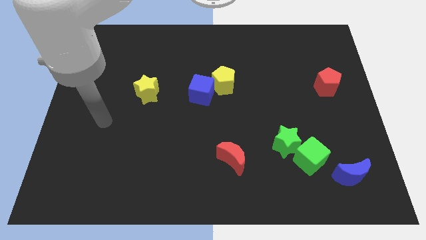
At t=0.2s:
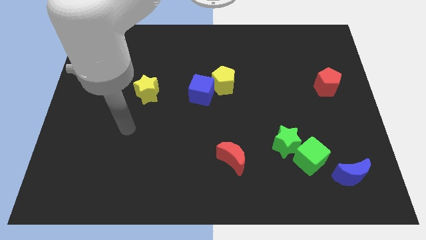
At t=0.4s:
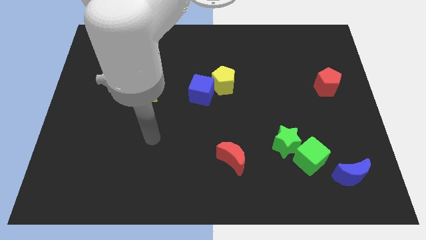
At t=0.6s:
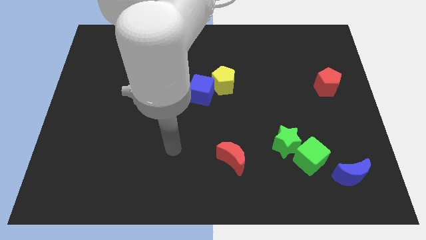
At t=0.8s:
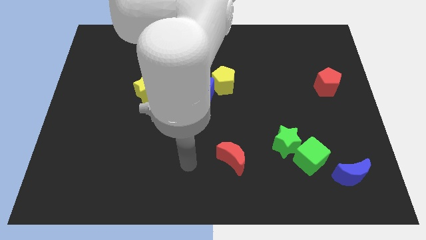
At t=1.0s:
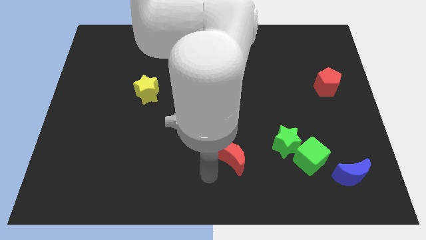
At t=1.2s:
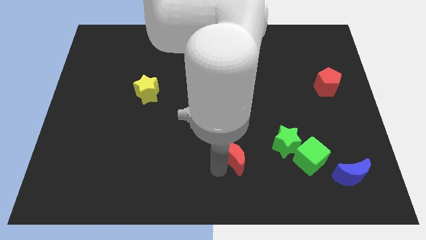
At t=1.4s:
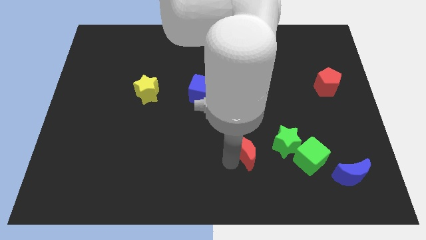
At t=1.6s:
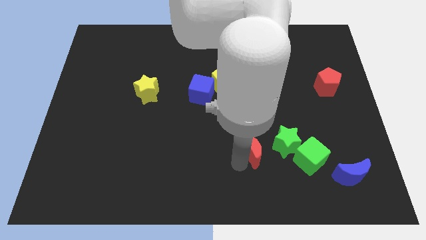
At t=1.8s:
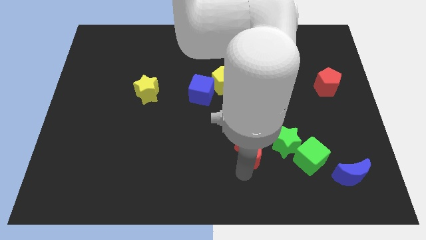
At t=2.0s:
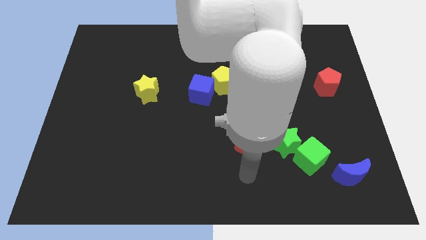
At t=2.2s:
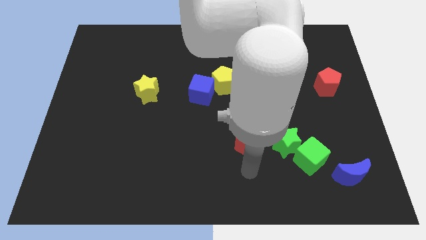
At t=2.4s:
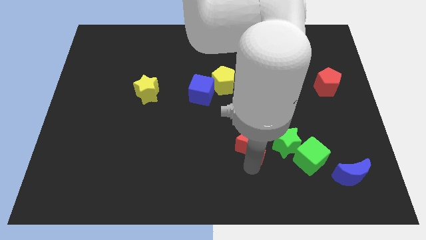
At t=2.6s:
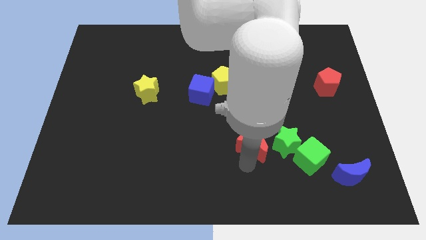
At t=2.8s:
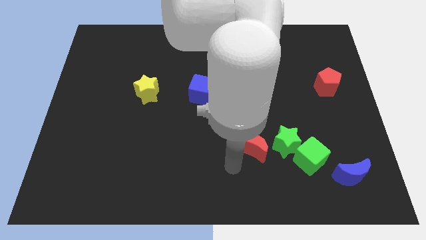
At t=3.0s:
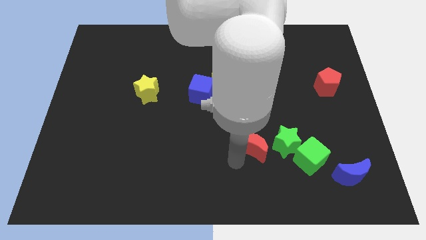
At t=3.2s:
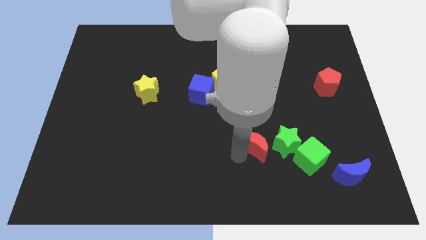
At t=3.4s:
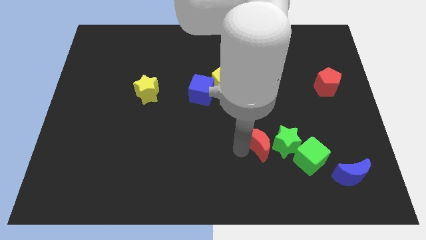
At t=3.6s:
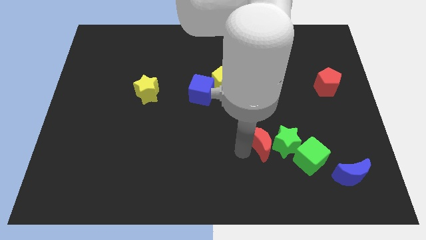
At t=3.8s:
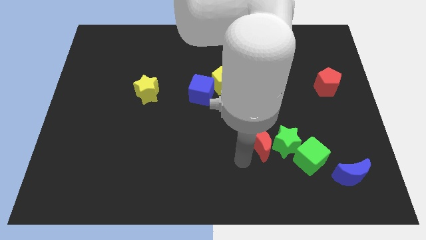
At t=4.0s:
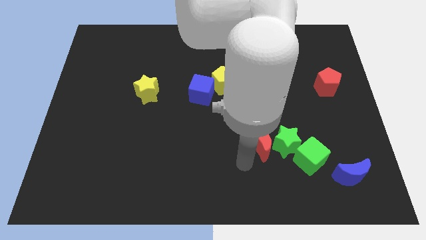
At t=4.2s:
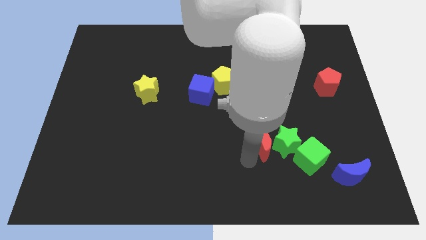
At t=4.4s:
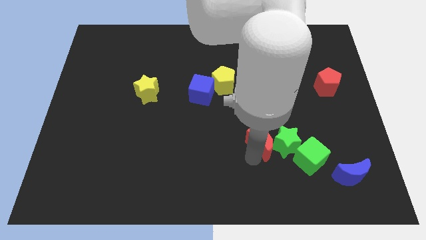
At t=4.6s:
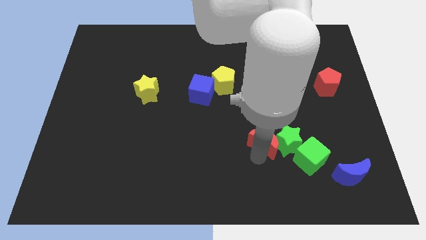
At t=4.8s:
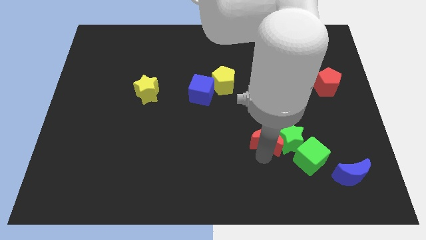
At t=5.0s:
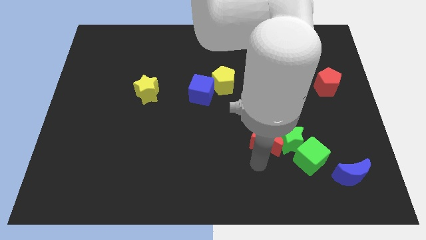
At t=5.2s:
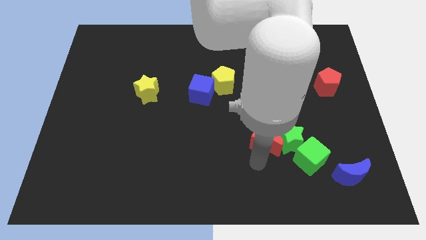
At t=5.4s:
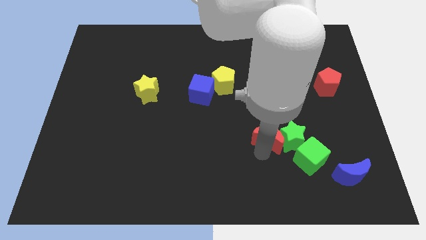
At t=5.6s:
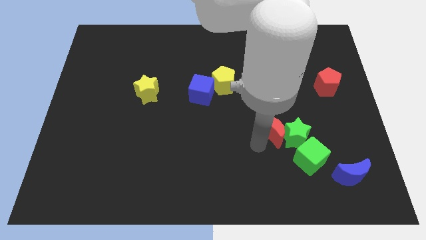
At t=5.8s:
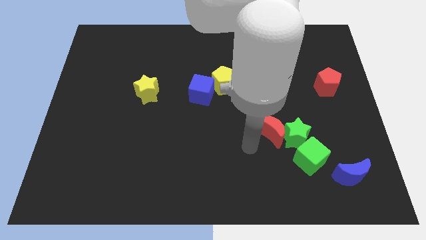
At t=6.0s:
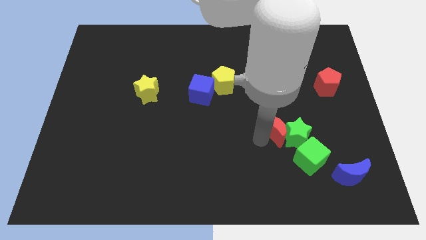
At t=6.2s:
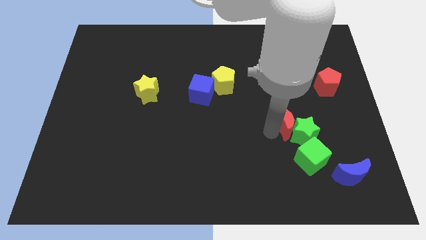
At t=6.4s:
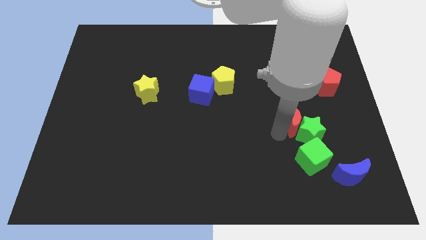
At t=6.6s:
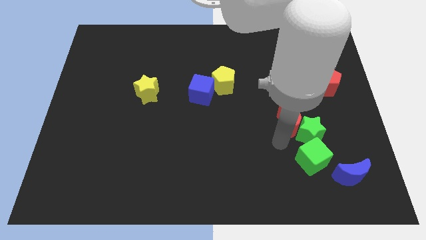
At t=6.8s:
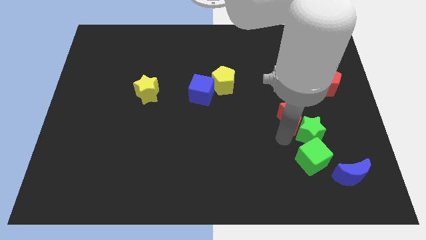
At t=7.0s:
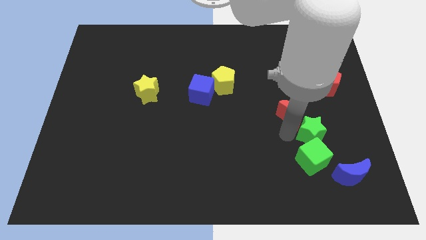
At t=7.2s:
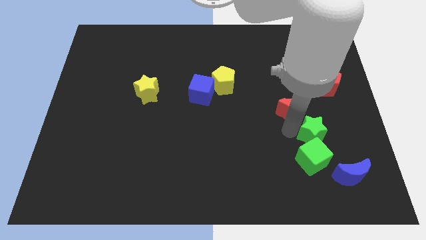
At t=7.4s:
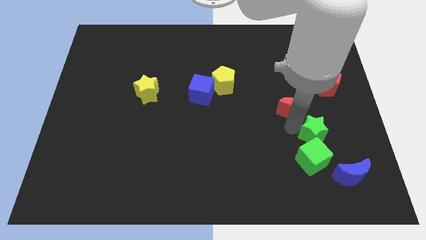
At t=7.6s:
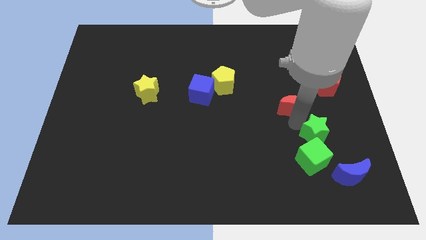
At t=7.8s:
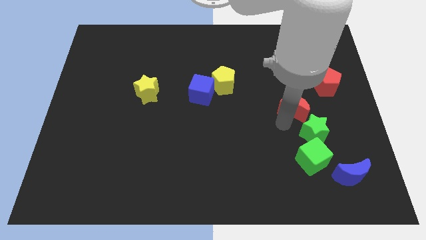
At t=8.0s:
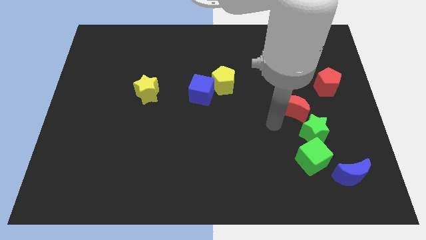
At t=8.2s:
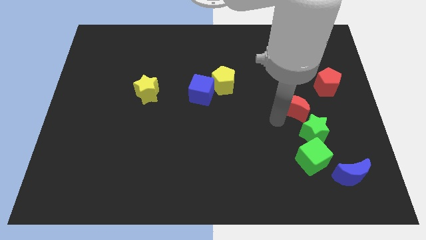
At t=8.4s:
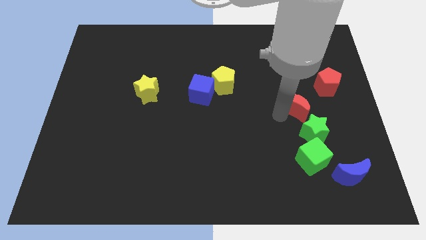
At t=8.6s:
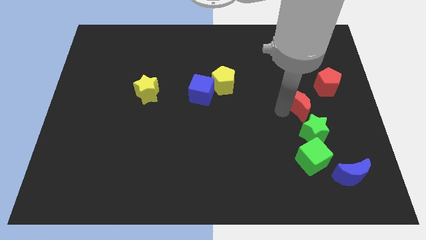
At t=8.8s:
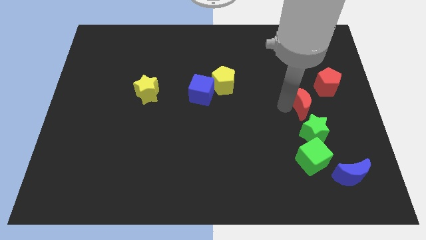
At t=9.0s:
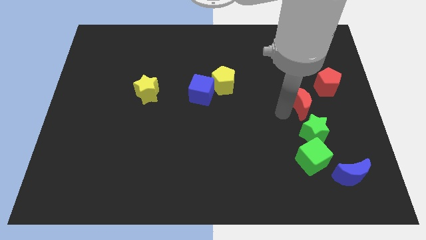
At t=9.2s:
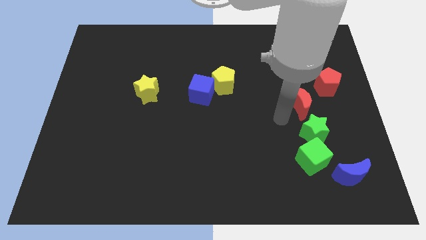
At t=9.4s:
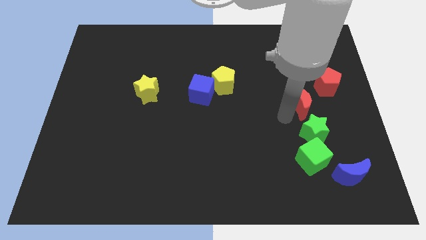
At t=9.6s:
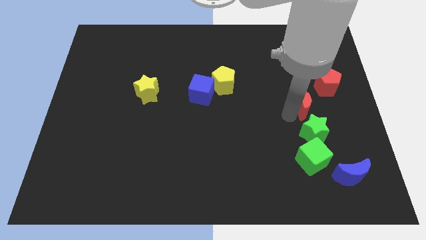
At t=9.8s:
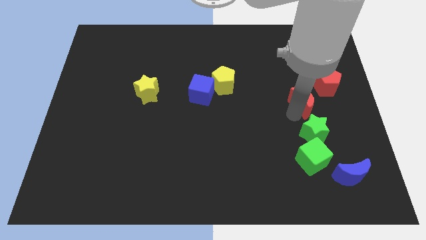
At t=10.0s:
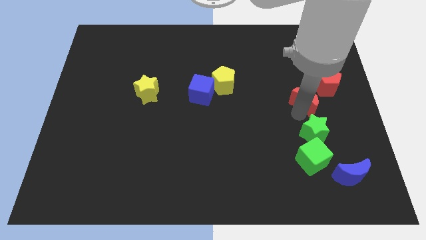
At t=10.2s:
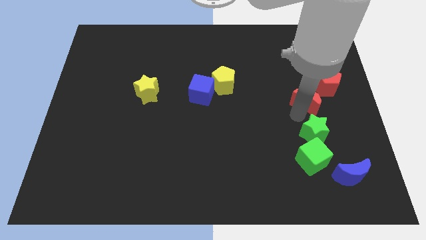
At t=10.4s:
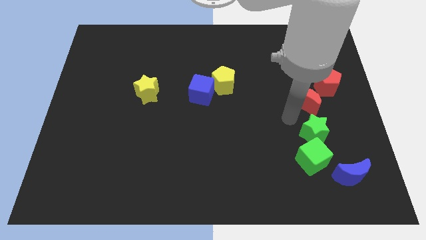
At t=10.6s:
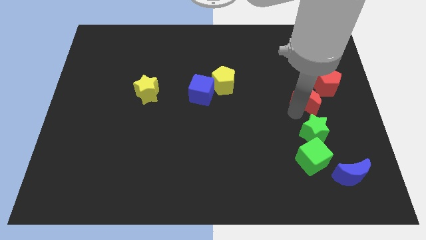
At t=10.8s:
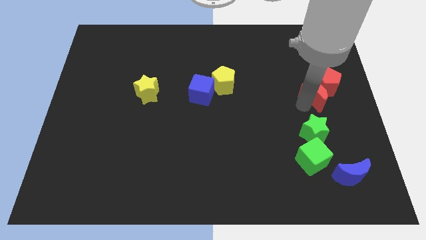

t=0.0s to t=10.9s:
slide the red moon towards the red pentagon

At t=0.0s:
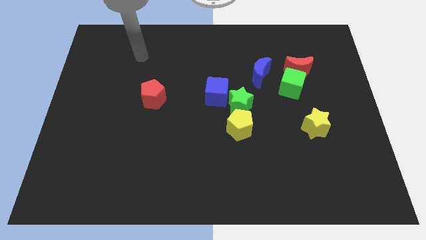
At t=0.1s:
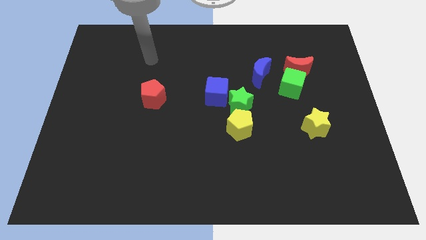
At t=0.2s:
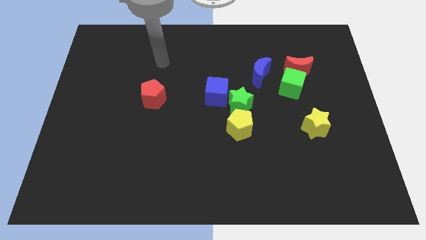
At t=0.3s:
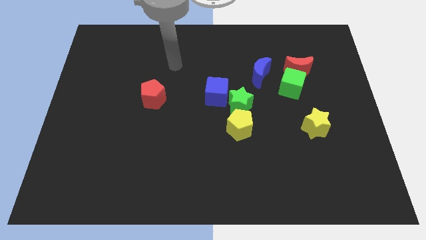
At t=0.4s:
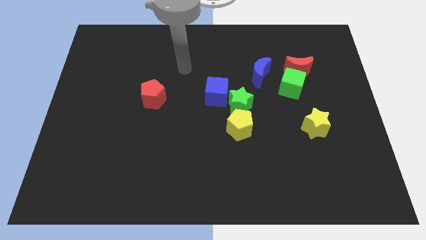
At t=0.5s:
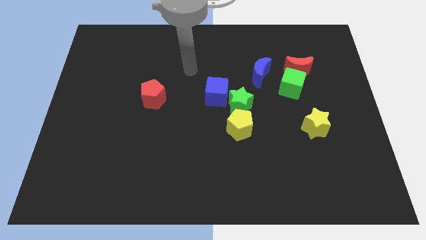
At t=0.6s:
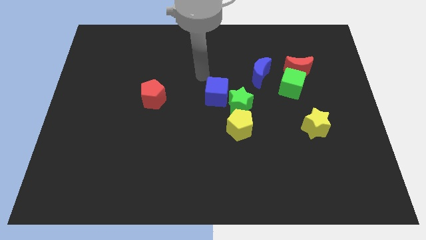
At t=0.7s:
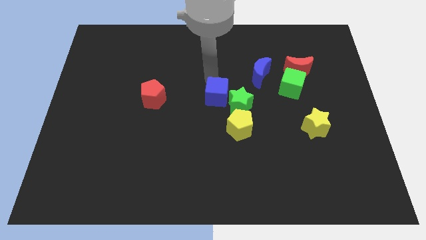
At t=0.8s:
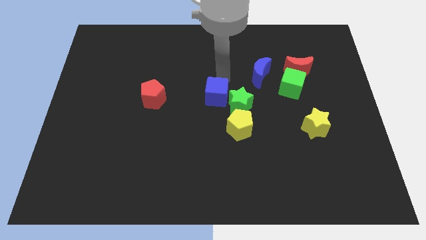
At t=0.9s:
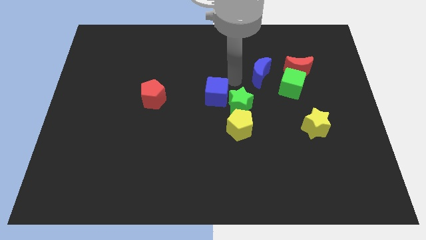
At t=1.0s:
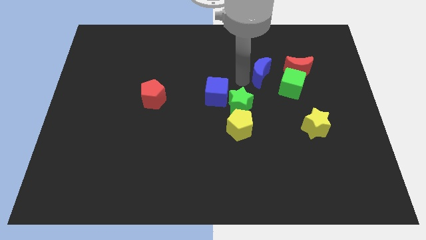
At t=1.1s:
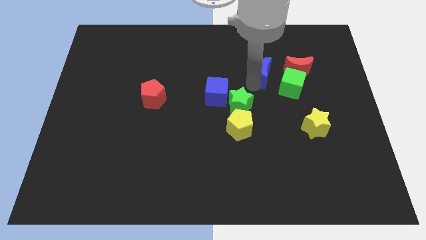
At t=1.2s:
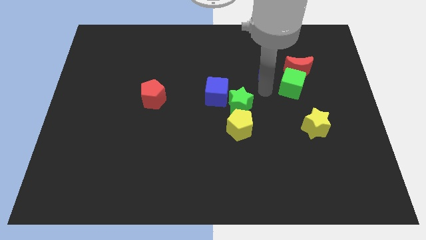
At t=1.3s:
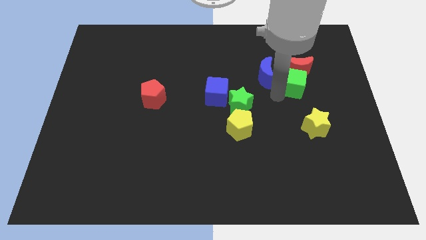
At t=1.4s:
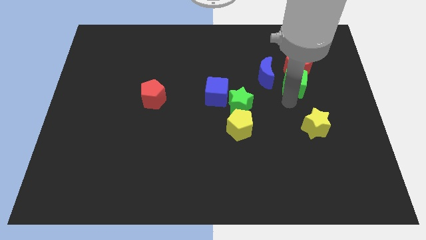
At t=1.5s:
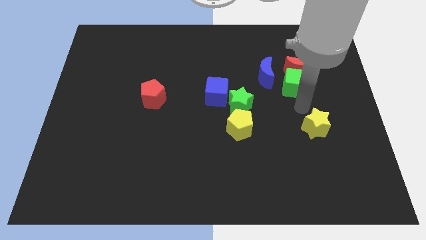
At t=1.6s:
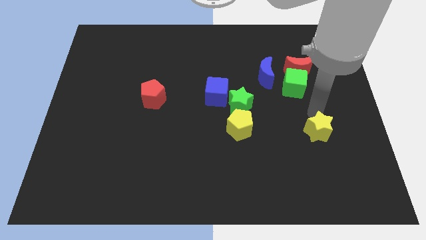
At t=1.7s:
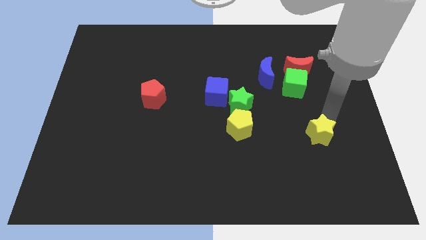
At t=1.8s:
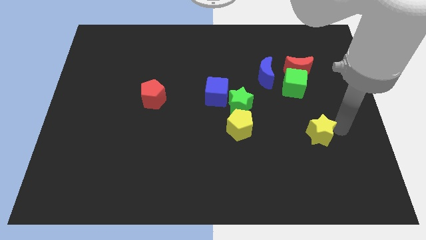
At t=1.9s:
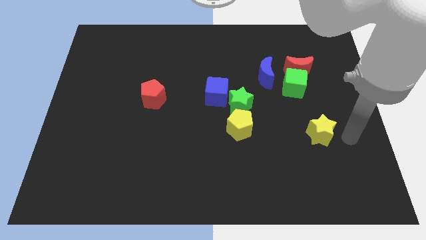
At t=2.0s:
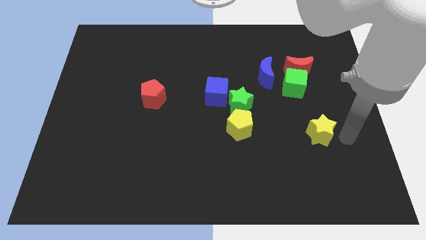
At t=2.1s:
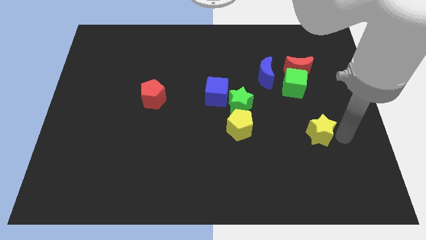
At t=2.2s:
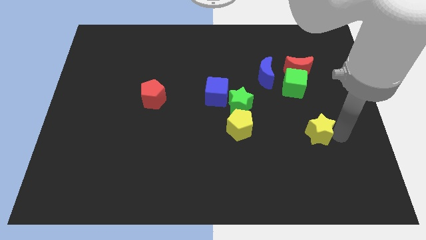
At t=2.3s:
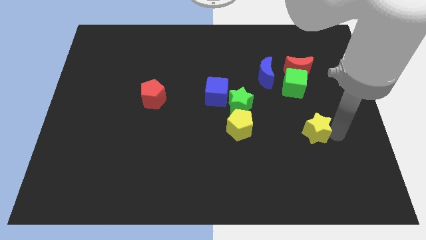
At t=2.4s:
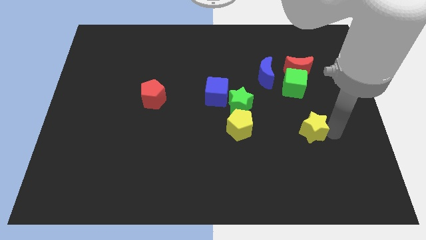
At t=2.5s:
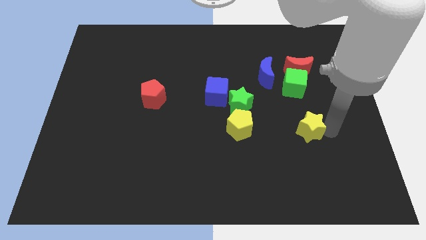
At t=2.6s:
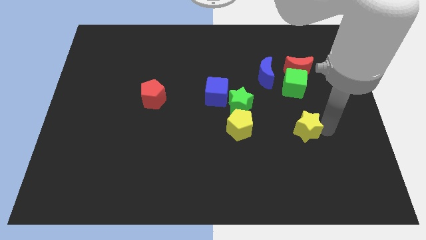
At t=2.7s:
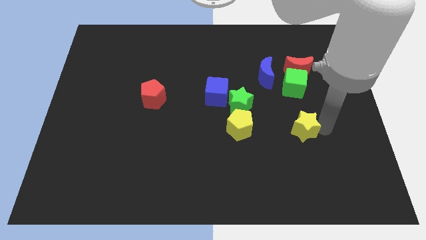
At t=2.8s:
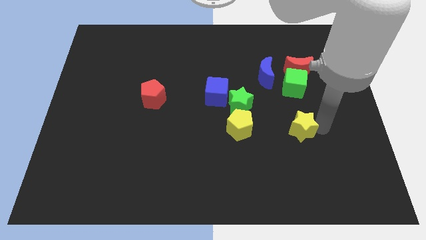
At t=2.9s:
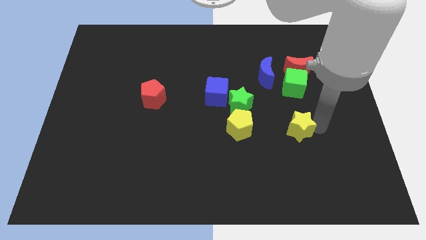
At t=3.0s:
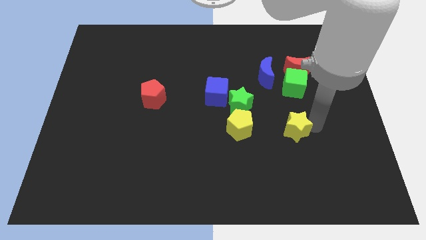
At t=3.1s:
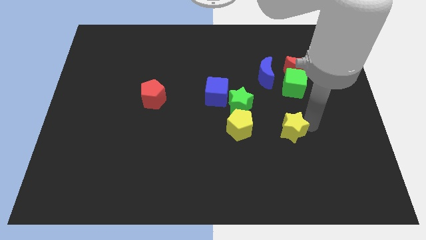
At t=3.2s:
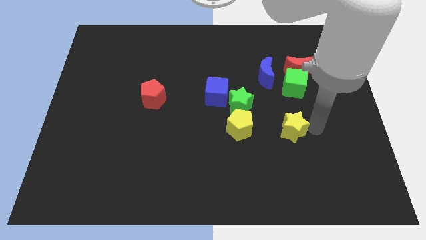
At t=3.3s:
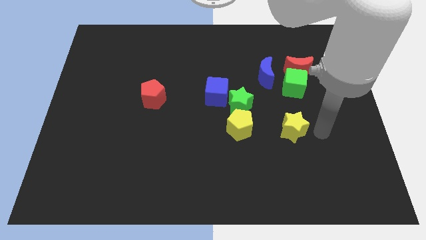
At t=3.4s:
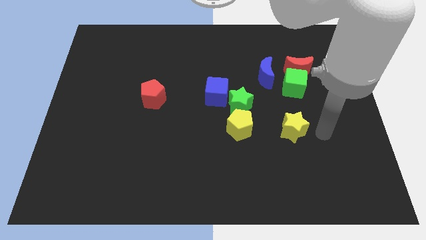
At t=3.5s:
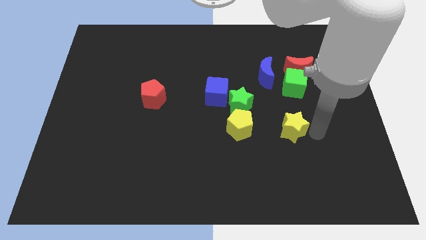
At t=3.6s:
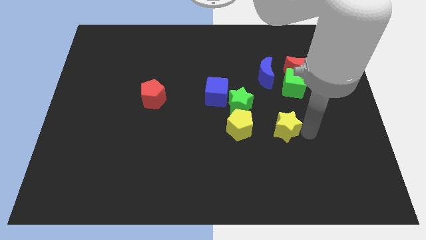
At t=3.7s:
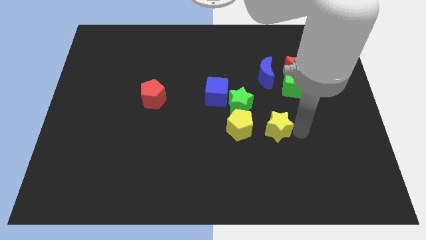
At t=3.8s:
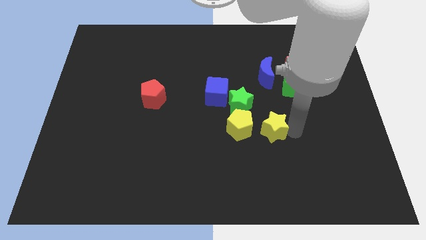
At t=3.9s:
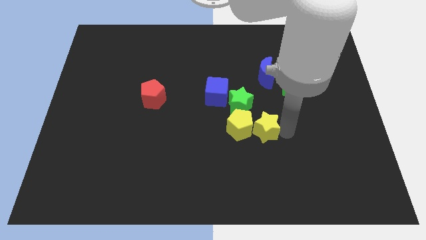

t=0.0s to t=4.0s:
slide the yellow star next to the yellow pentagon
